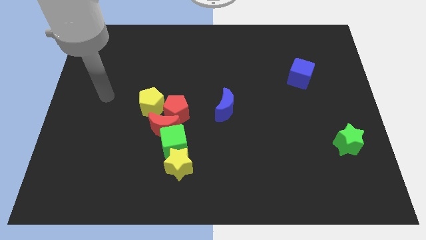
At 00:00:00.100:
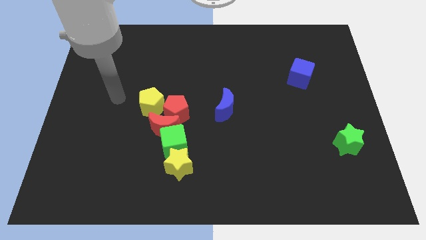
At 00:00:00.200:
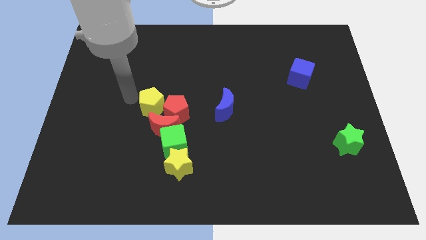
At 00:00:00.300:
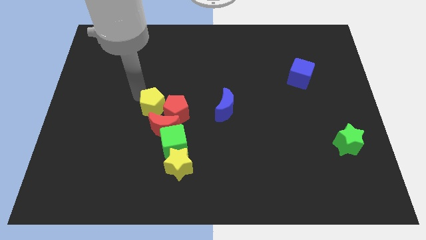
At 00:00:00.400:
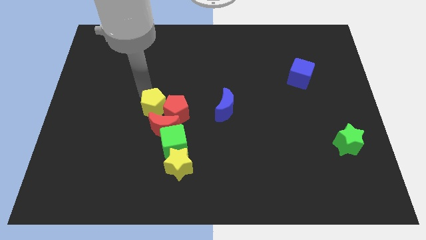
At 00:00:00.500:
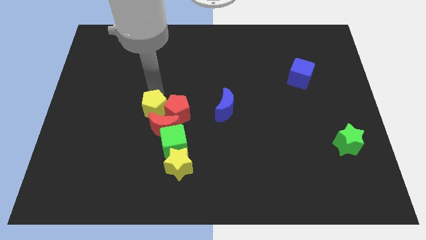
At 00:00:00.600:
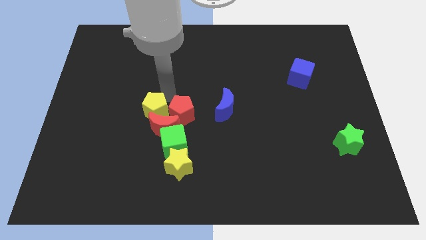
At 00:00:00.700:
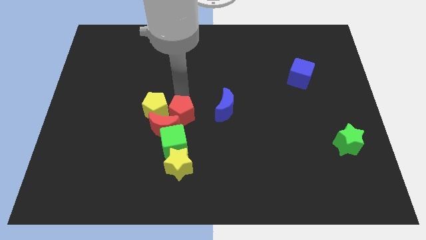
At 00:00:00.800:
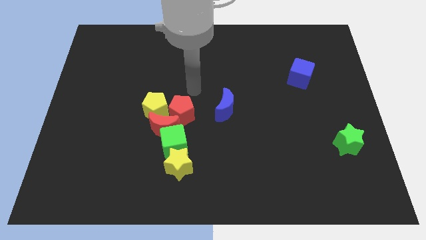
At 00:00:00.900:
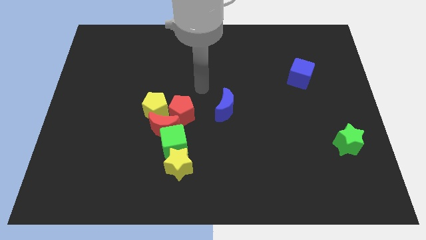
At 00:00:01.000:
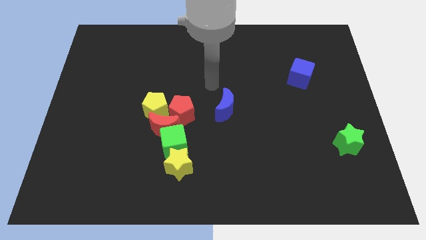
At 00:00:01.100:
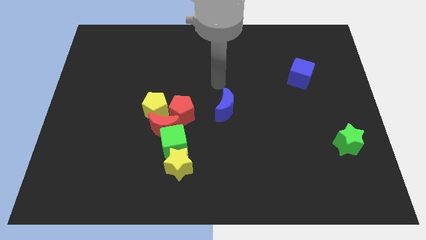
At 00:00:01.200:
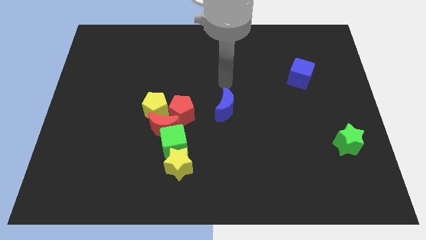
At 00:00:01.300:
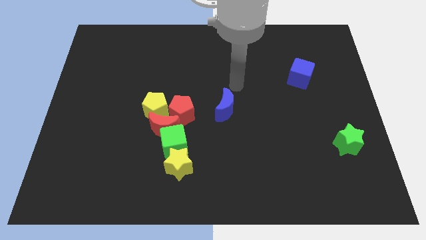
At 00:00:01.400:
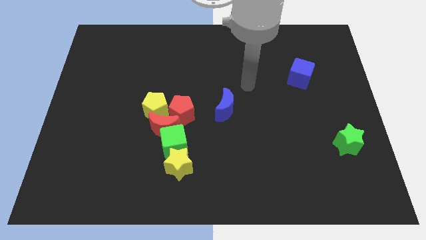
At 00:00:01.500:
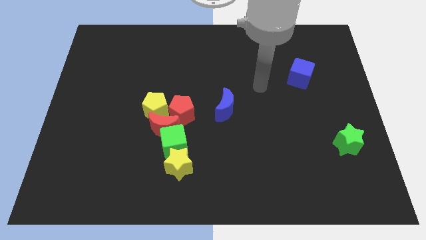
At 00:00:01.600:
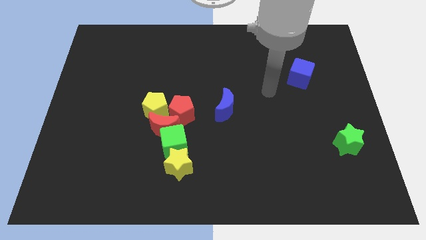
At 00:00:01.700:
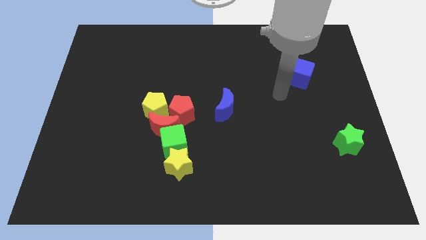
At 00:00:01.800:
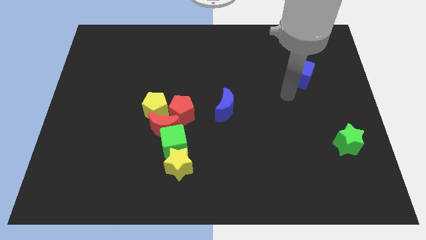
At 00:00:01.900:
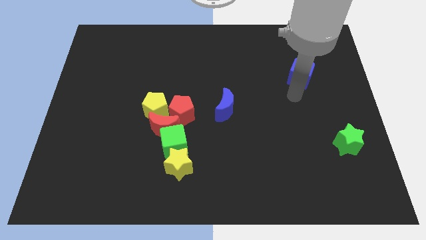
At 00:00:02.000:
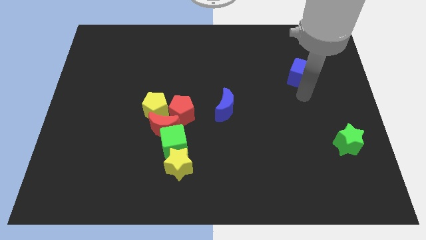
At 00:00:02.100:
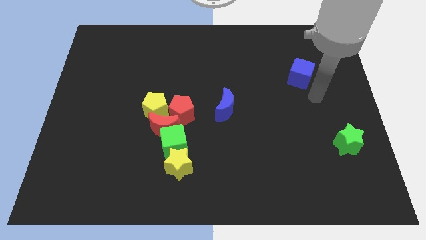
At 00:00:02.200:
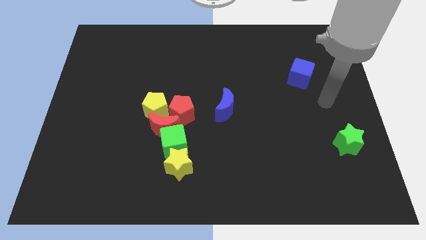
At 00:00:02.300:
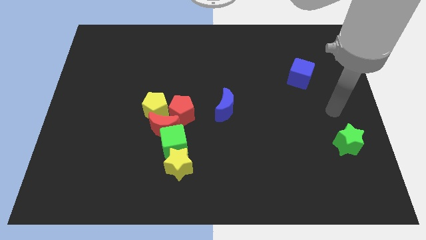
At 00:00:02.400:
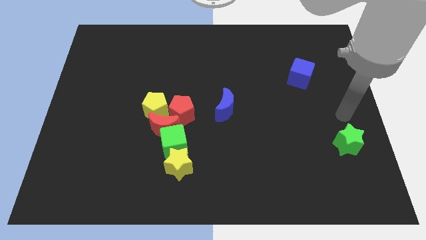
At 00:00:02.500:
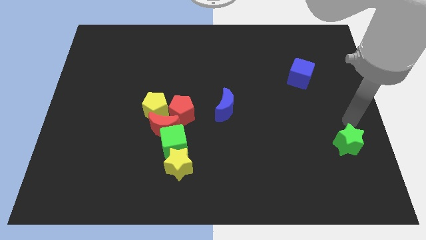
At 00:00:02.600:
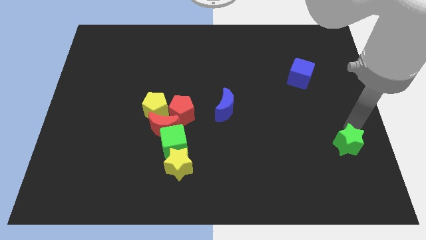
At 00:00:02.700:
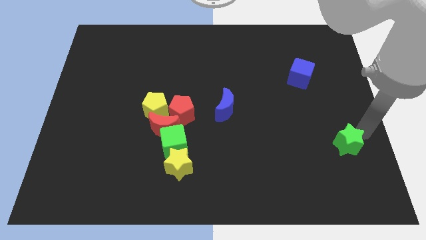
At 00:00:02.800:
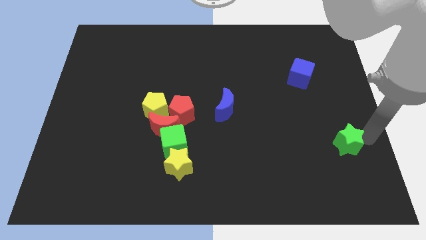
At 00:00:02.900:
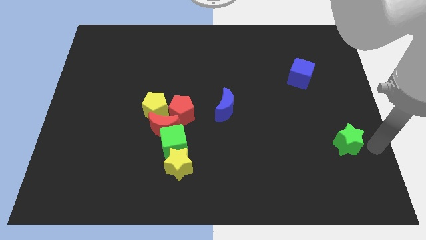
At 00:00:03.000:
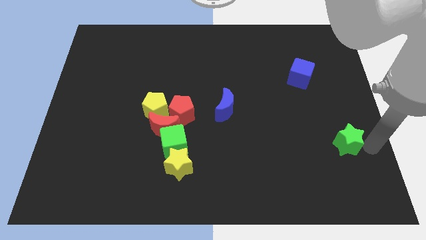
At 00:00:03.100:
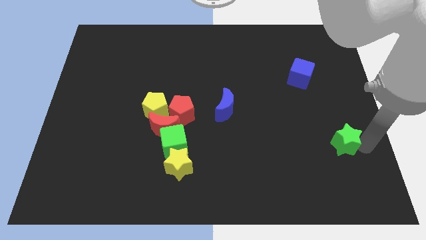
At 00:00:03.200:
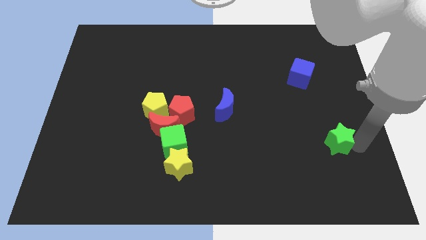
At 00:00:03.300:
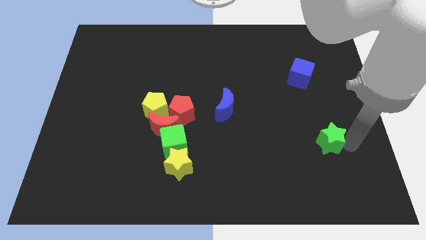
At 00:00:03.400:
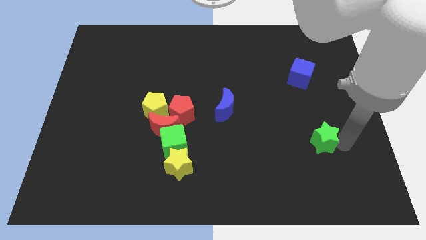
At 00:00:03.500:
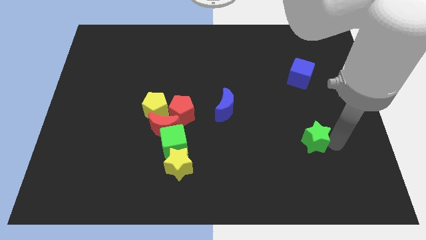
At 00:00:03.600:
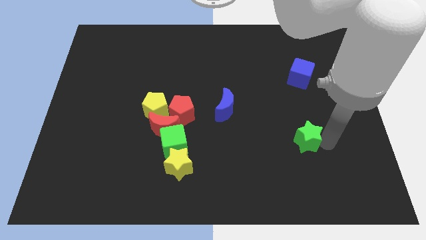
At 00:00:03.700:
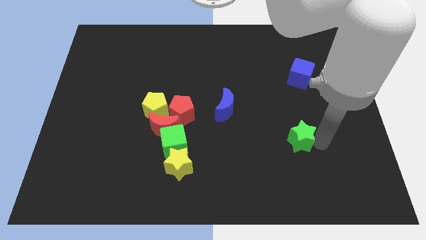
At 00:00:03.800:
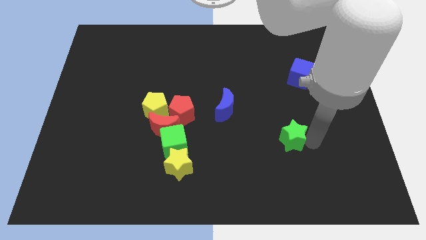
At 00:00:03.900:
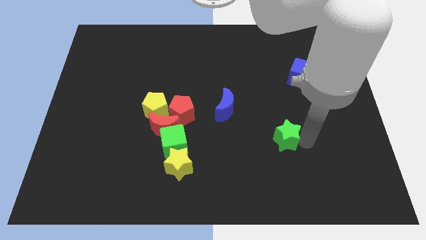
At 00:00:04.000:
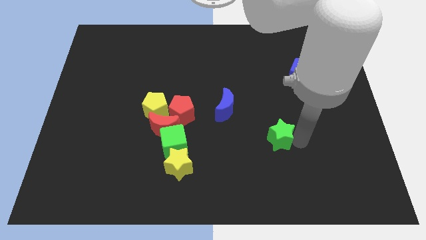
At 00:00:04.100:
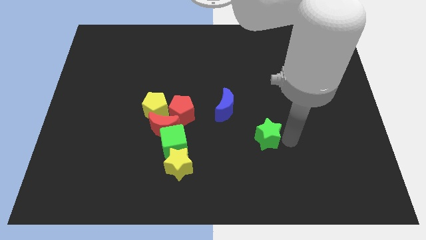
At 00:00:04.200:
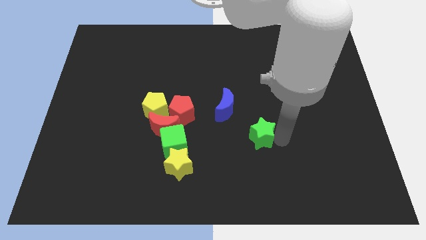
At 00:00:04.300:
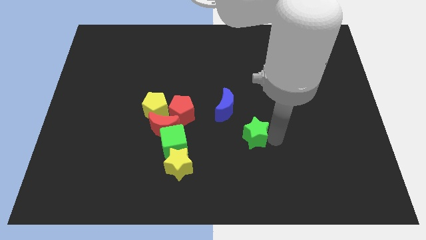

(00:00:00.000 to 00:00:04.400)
move the green star to the left

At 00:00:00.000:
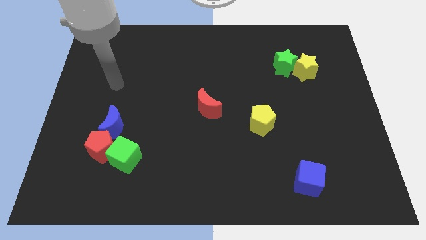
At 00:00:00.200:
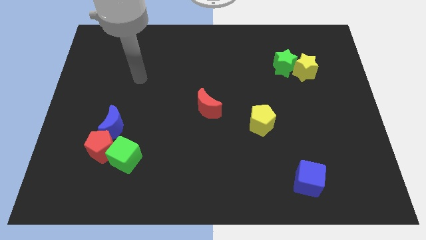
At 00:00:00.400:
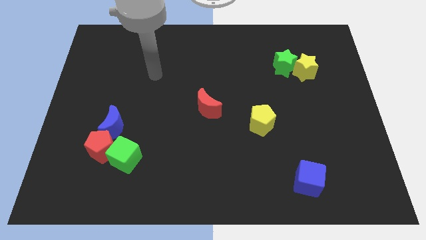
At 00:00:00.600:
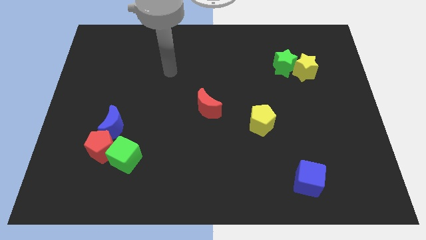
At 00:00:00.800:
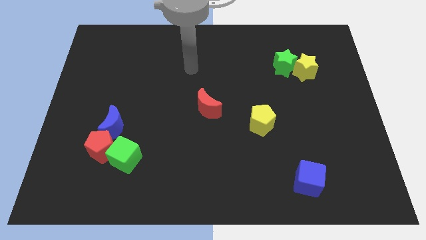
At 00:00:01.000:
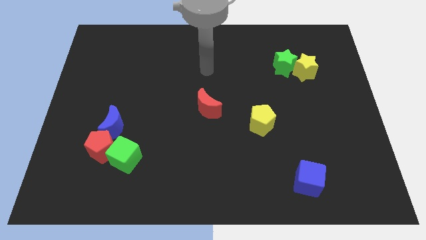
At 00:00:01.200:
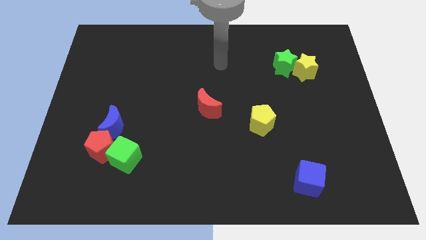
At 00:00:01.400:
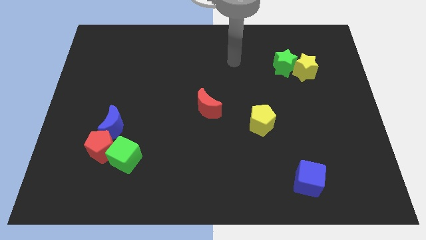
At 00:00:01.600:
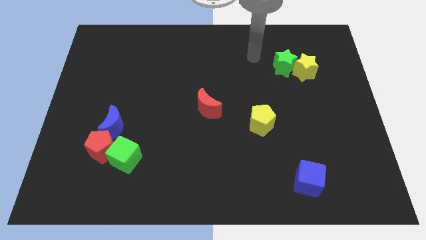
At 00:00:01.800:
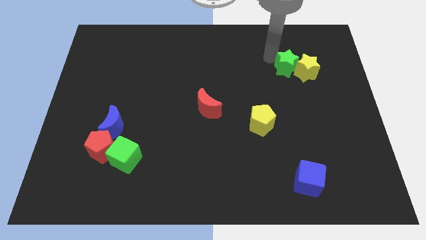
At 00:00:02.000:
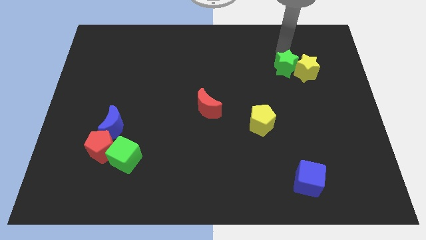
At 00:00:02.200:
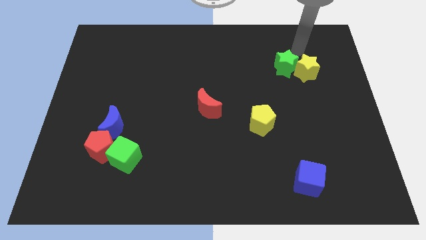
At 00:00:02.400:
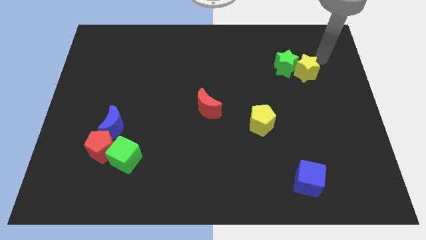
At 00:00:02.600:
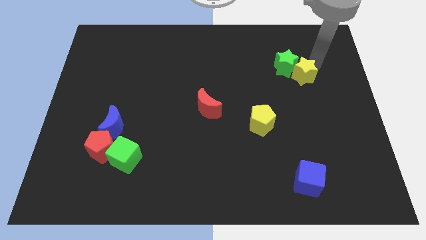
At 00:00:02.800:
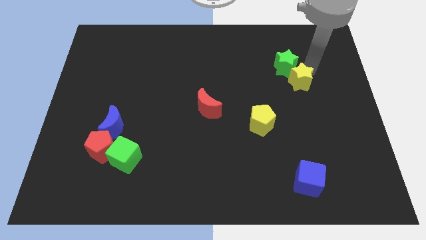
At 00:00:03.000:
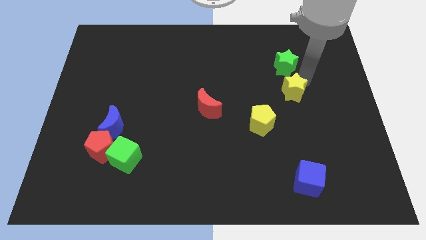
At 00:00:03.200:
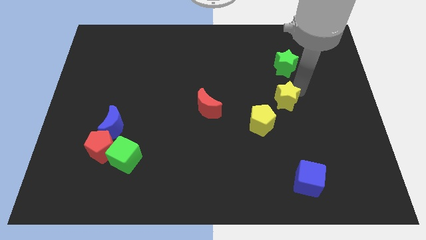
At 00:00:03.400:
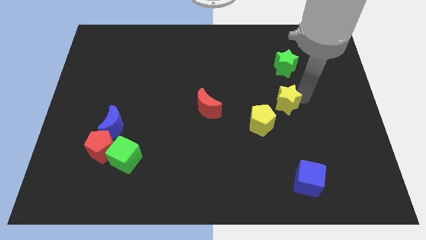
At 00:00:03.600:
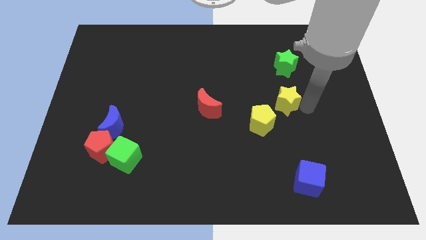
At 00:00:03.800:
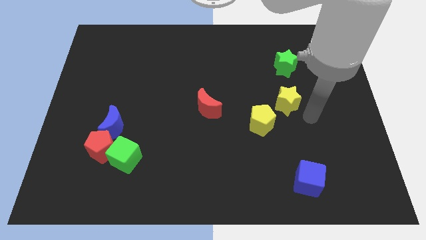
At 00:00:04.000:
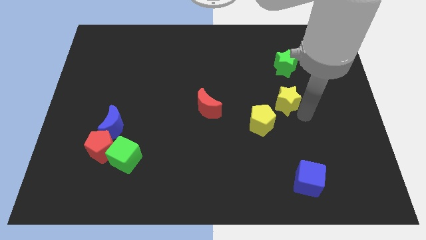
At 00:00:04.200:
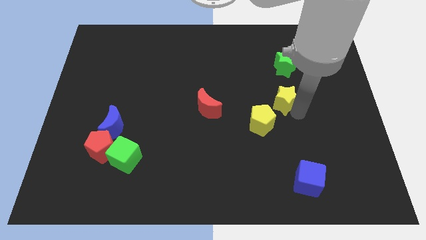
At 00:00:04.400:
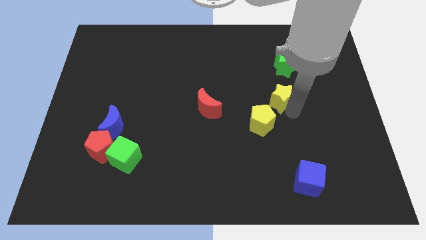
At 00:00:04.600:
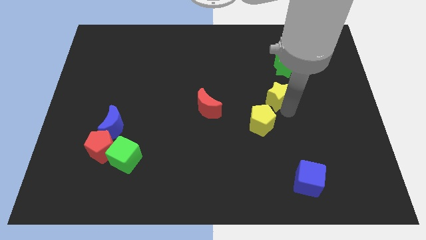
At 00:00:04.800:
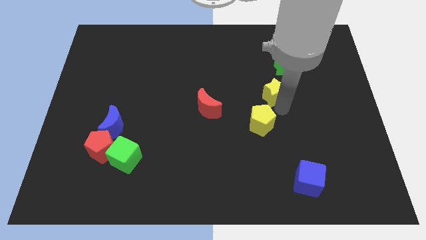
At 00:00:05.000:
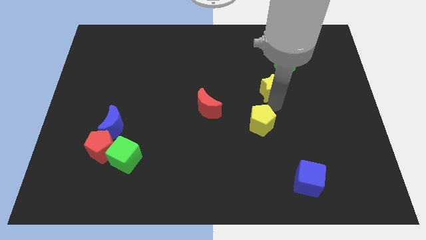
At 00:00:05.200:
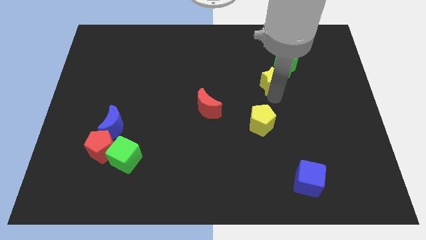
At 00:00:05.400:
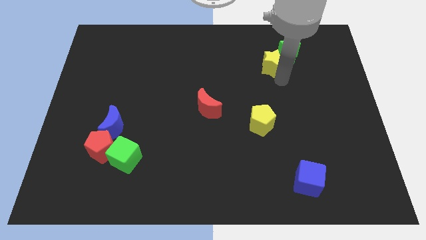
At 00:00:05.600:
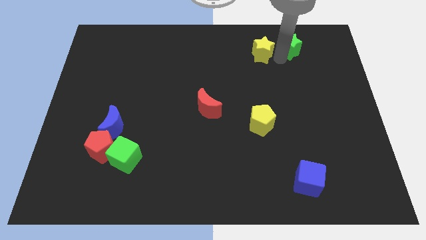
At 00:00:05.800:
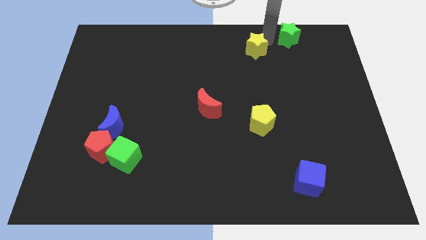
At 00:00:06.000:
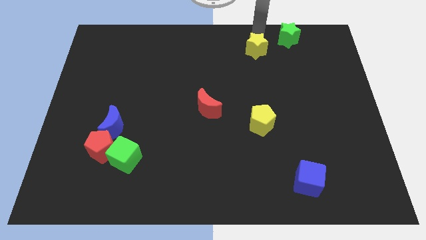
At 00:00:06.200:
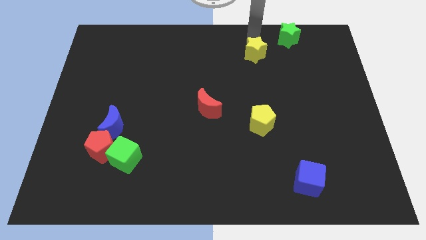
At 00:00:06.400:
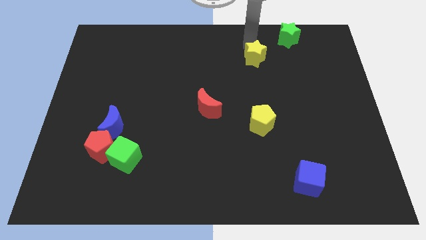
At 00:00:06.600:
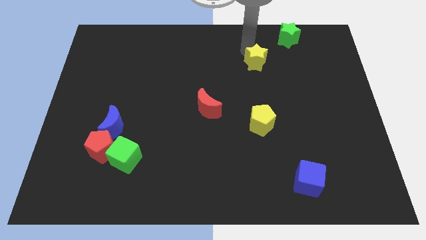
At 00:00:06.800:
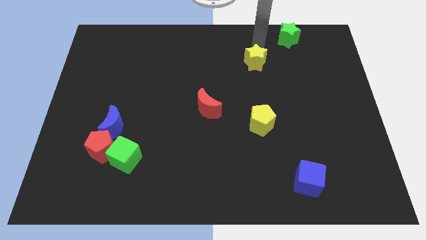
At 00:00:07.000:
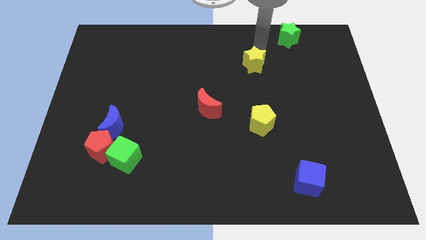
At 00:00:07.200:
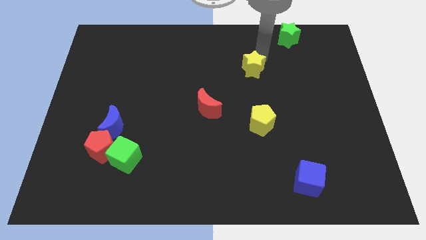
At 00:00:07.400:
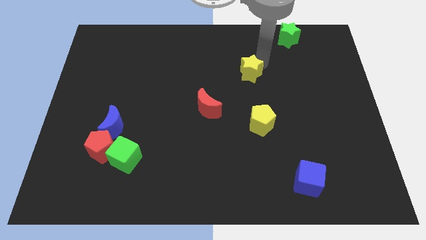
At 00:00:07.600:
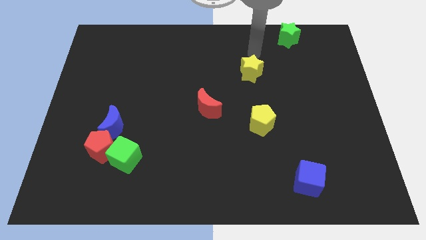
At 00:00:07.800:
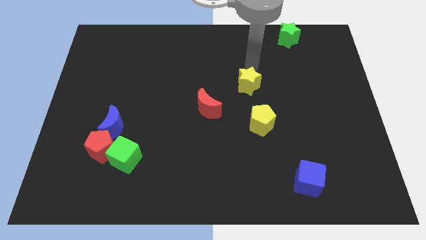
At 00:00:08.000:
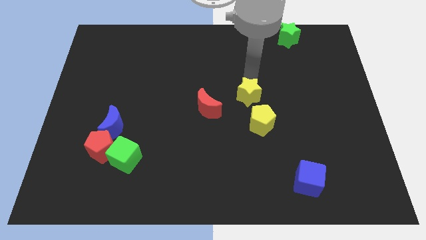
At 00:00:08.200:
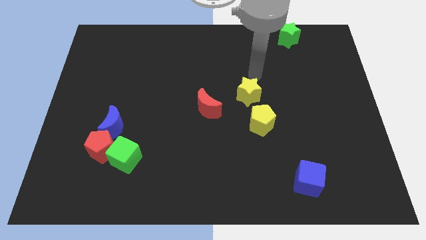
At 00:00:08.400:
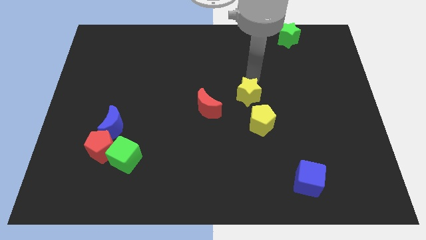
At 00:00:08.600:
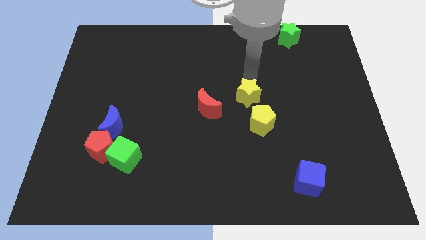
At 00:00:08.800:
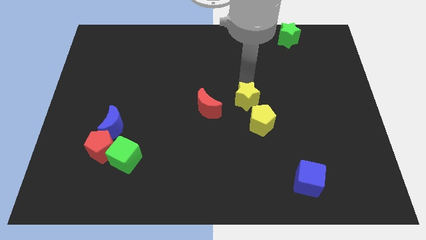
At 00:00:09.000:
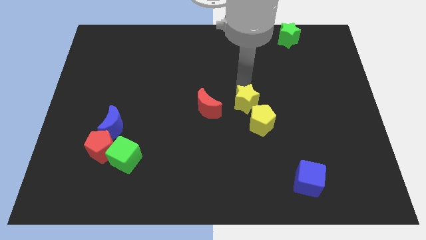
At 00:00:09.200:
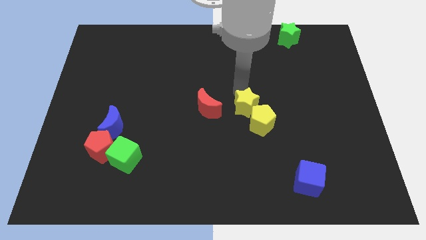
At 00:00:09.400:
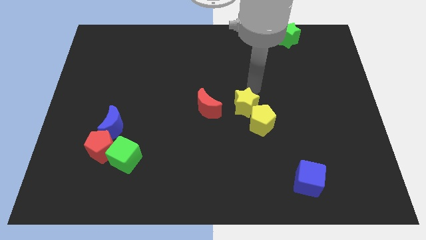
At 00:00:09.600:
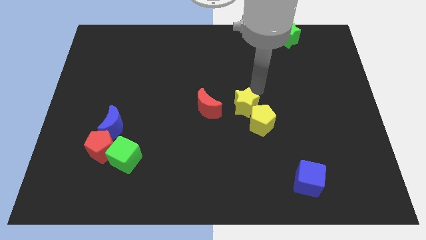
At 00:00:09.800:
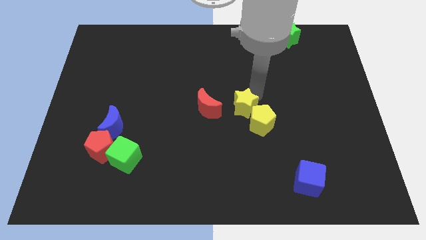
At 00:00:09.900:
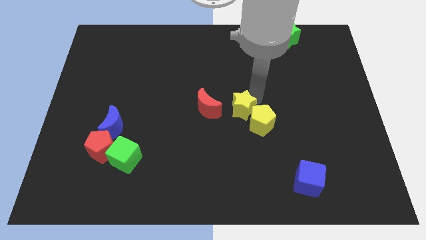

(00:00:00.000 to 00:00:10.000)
slide the yellow star downwards and to the left
